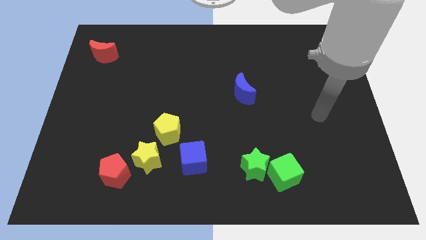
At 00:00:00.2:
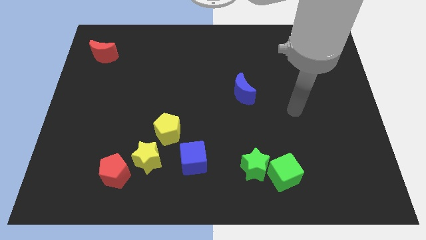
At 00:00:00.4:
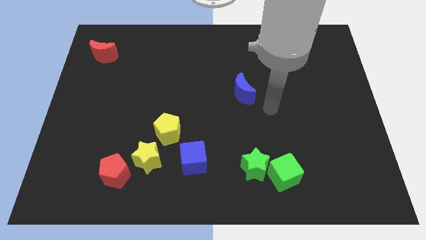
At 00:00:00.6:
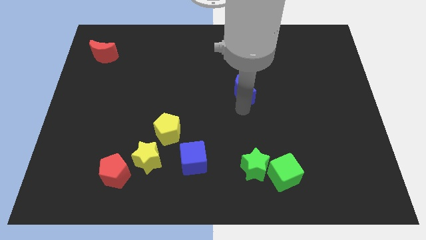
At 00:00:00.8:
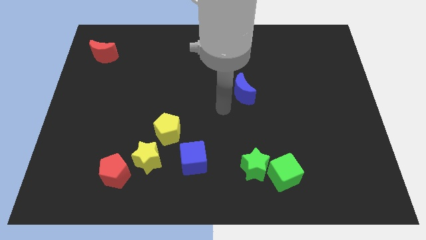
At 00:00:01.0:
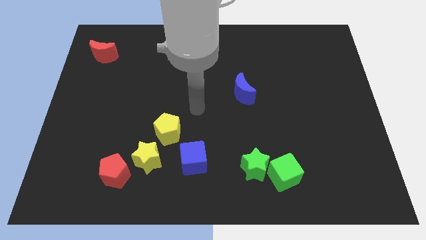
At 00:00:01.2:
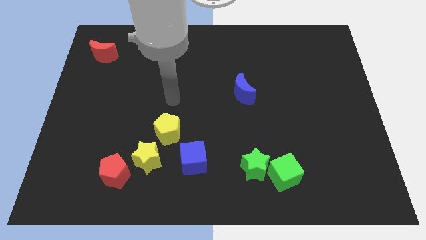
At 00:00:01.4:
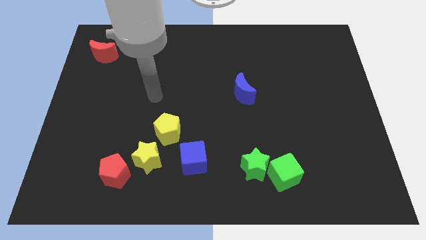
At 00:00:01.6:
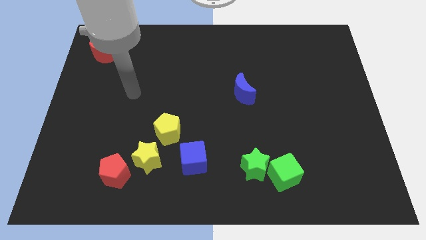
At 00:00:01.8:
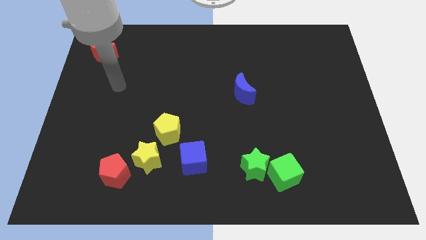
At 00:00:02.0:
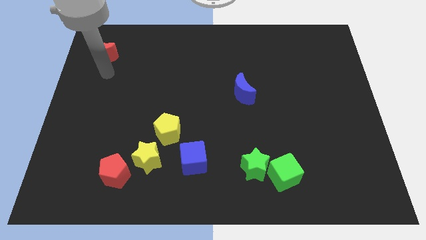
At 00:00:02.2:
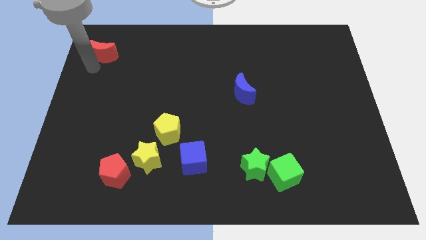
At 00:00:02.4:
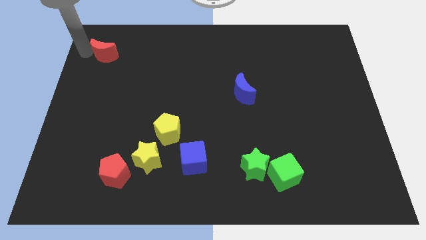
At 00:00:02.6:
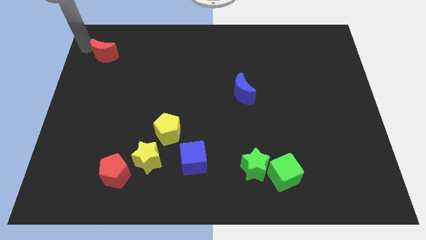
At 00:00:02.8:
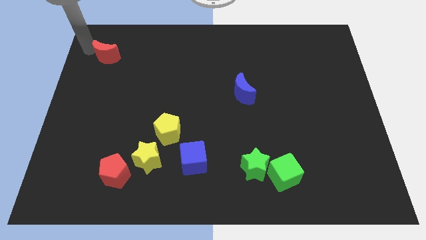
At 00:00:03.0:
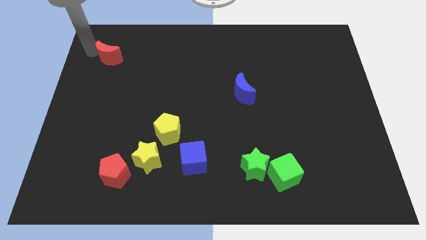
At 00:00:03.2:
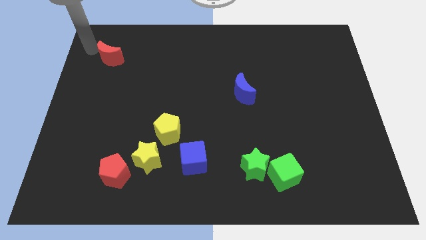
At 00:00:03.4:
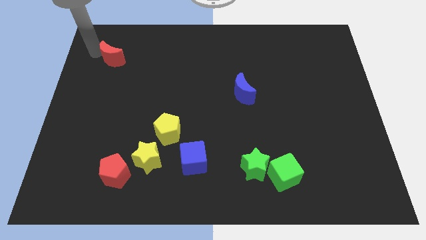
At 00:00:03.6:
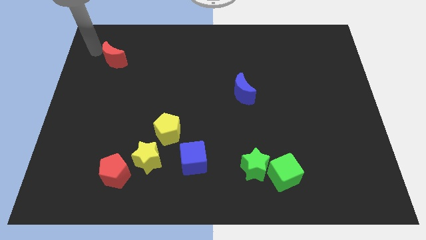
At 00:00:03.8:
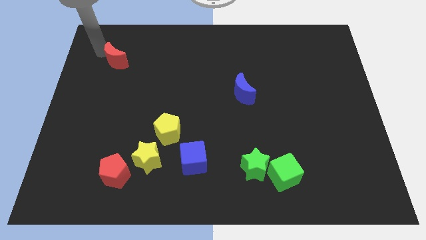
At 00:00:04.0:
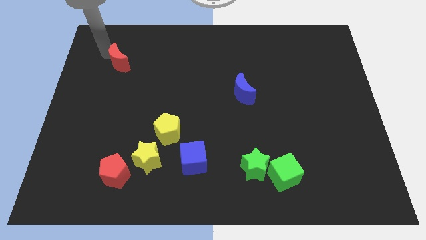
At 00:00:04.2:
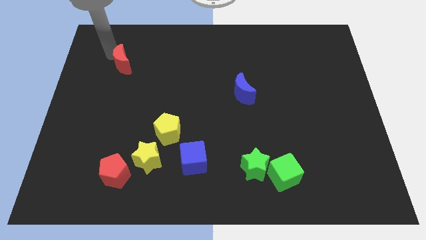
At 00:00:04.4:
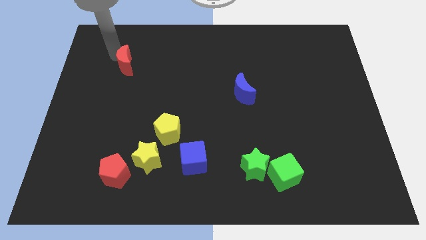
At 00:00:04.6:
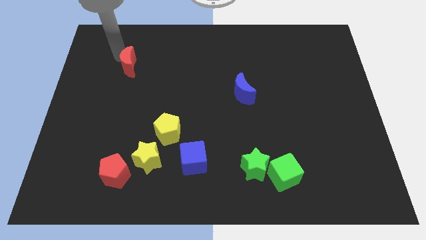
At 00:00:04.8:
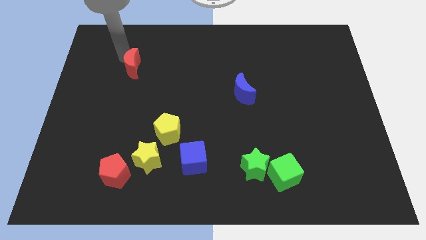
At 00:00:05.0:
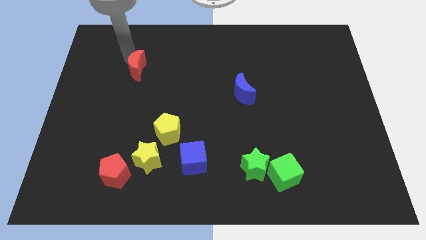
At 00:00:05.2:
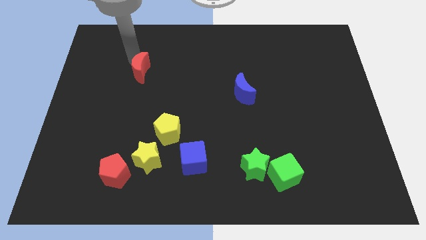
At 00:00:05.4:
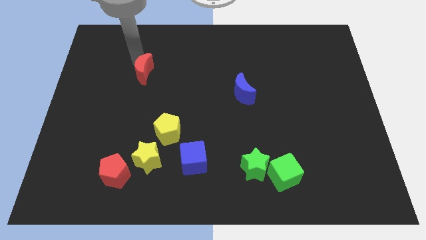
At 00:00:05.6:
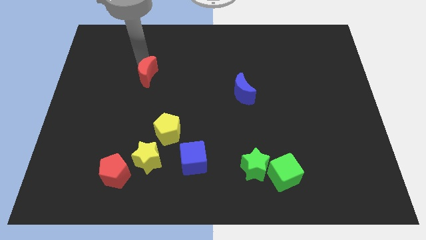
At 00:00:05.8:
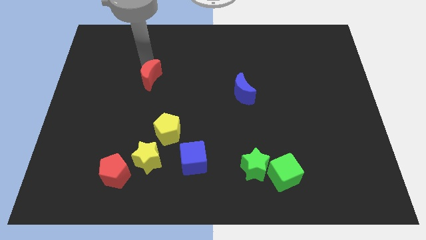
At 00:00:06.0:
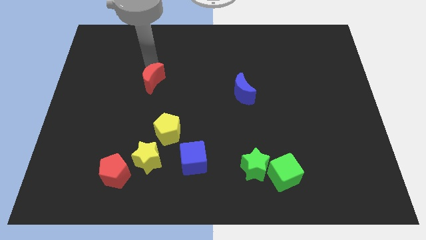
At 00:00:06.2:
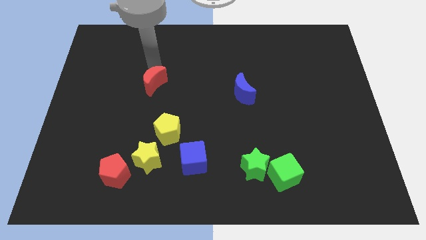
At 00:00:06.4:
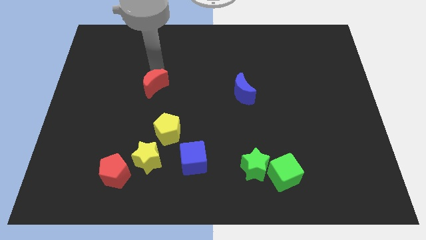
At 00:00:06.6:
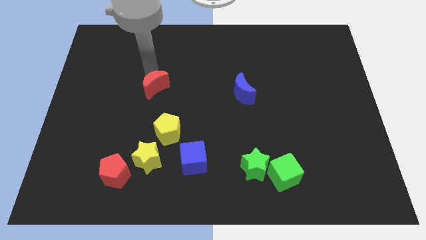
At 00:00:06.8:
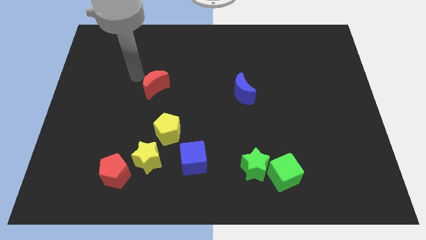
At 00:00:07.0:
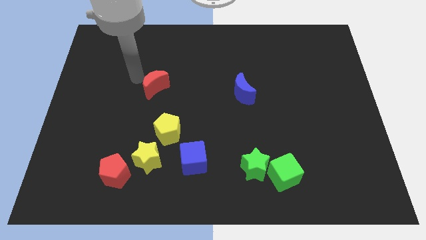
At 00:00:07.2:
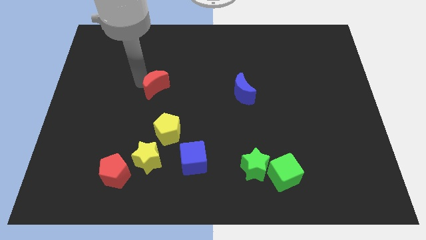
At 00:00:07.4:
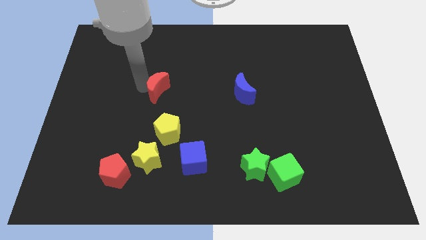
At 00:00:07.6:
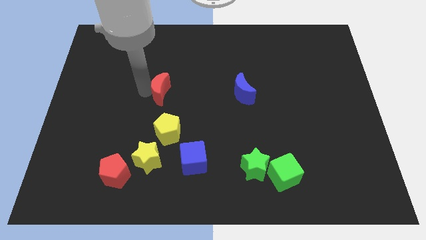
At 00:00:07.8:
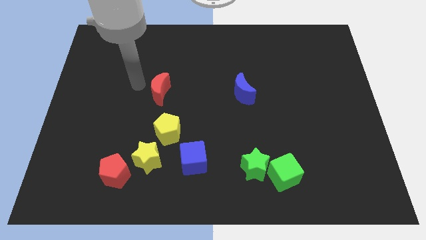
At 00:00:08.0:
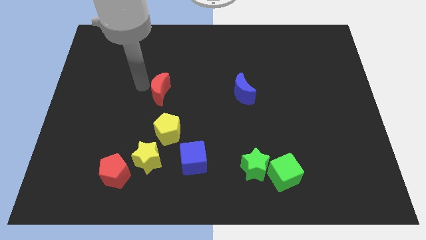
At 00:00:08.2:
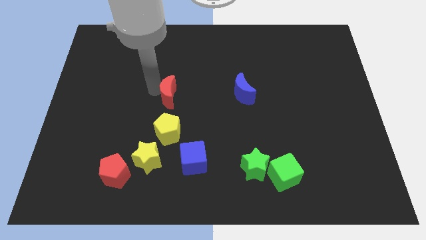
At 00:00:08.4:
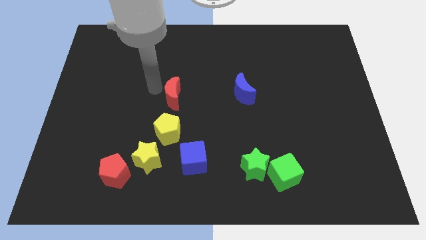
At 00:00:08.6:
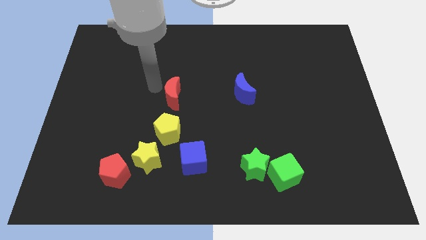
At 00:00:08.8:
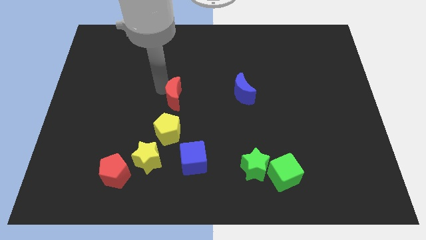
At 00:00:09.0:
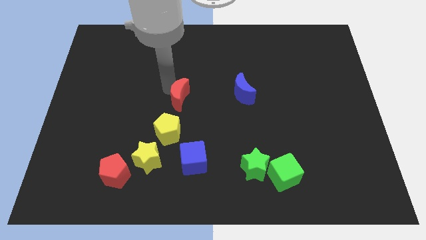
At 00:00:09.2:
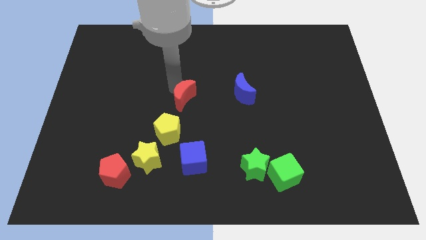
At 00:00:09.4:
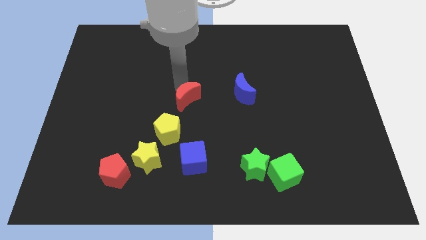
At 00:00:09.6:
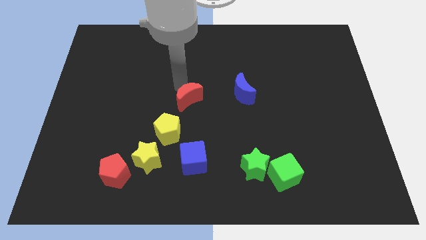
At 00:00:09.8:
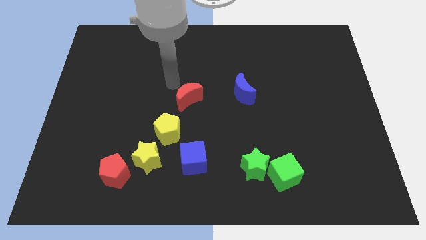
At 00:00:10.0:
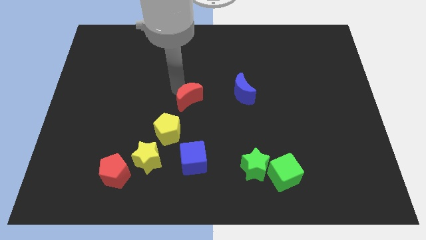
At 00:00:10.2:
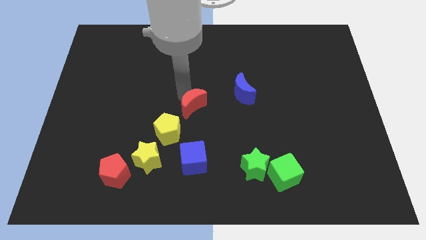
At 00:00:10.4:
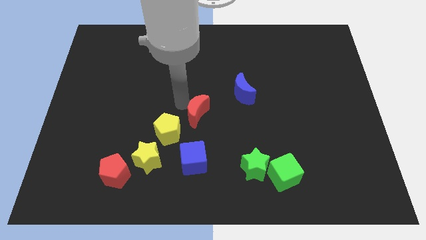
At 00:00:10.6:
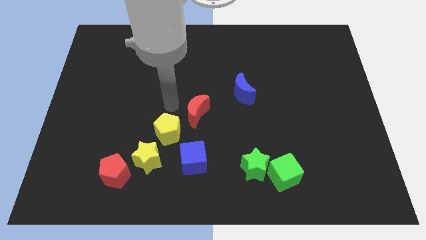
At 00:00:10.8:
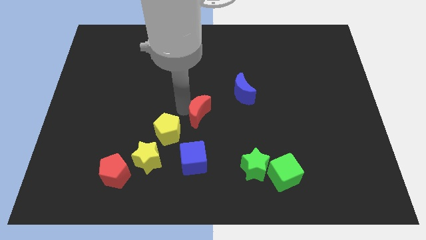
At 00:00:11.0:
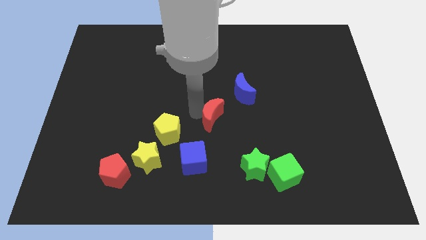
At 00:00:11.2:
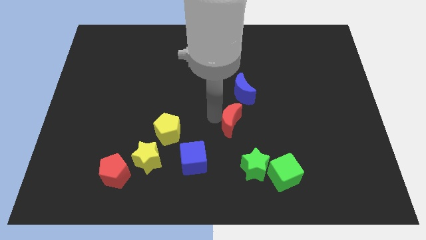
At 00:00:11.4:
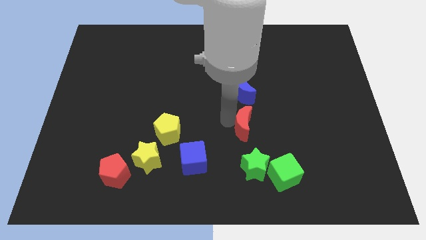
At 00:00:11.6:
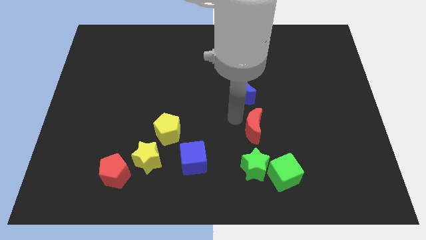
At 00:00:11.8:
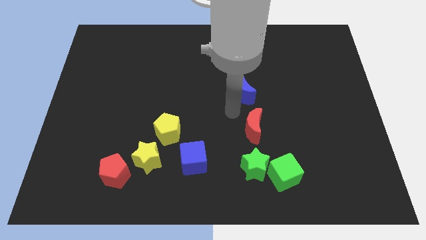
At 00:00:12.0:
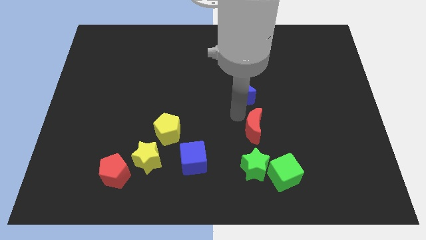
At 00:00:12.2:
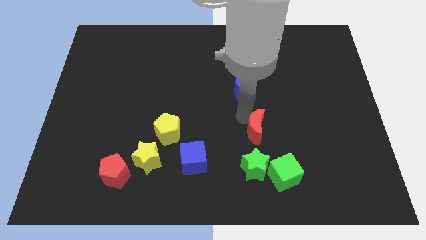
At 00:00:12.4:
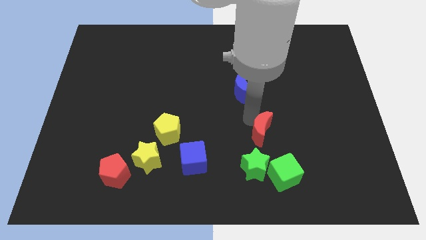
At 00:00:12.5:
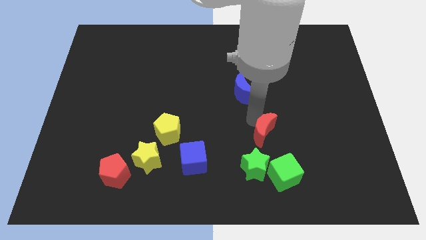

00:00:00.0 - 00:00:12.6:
slide the red moon to the top right of the green star
